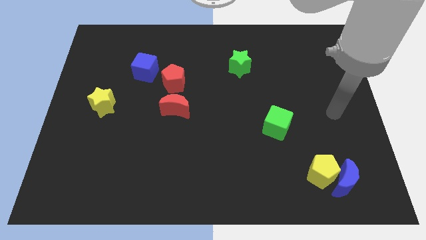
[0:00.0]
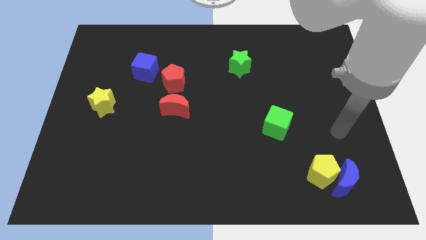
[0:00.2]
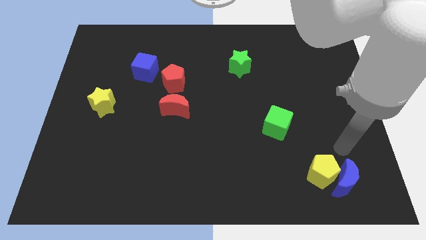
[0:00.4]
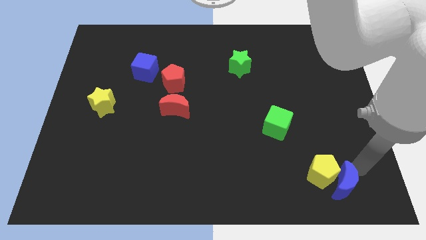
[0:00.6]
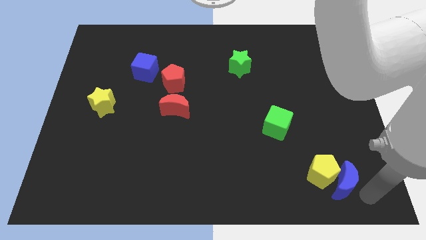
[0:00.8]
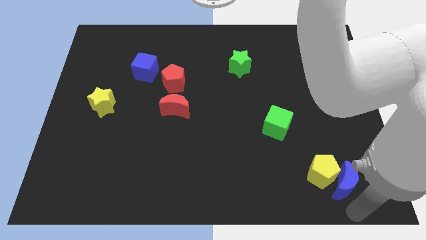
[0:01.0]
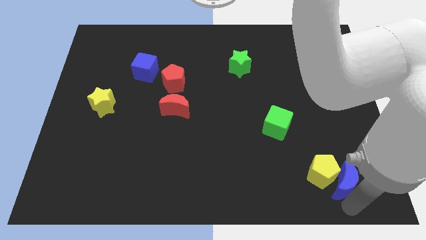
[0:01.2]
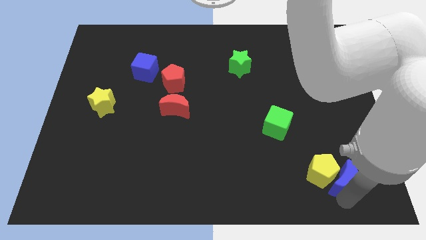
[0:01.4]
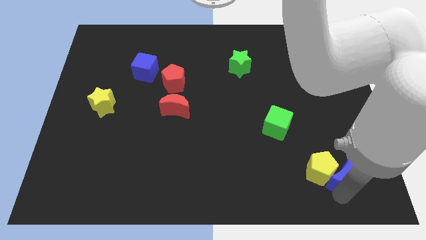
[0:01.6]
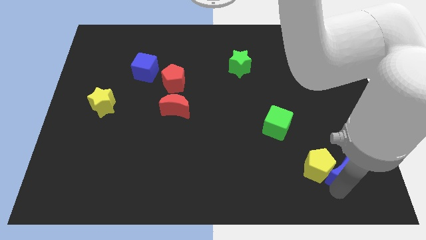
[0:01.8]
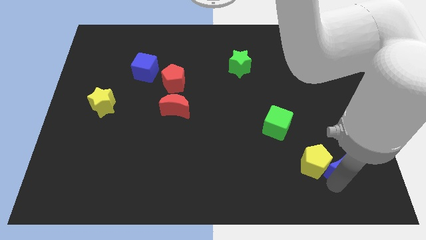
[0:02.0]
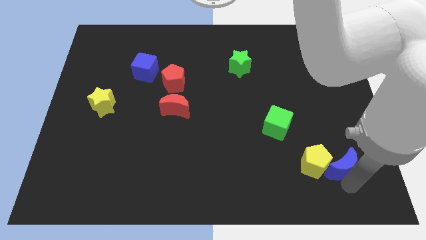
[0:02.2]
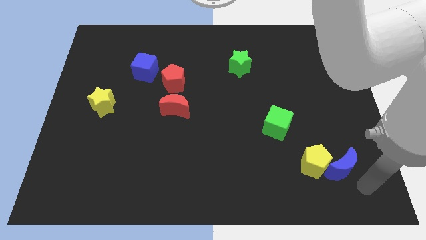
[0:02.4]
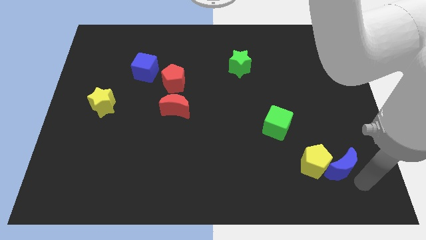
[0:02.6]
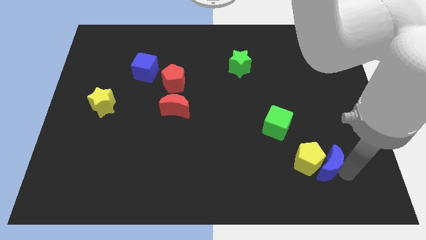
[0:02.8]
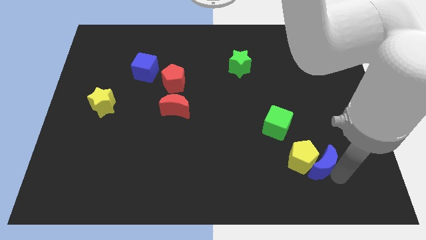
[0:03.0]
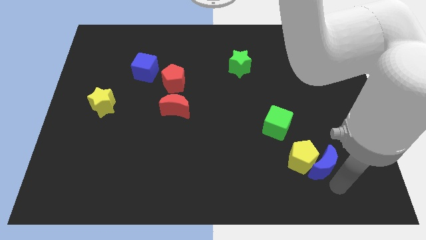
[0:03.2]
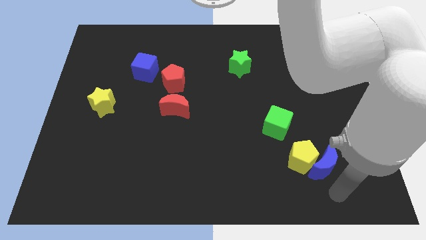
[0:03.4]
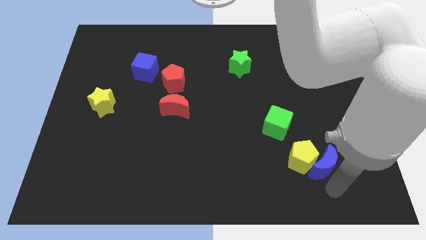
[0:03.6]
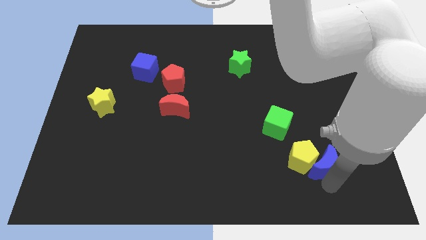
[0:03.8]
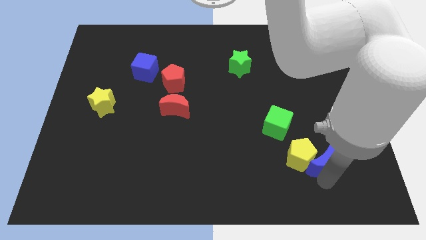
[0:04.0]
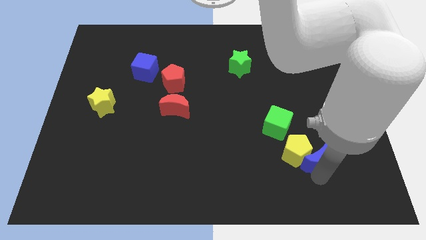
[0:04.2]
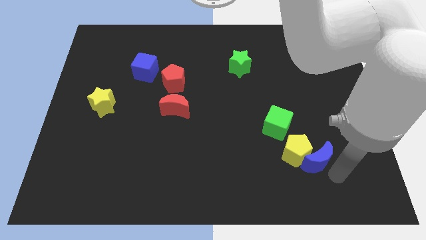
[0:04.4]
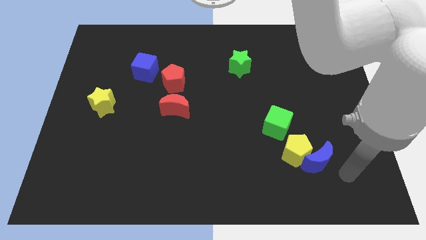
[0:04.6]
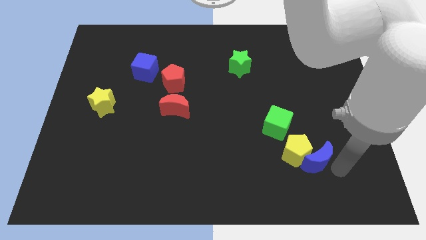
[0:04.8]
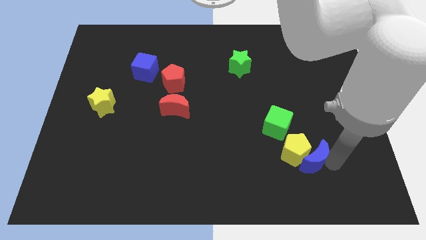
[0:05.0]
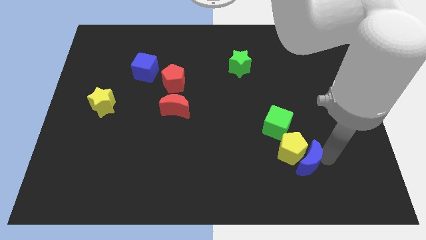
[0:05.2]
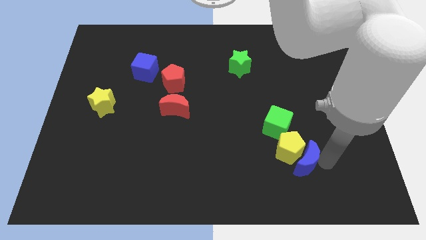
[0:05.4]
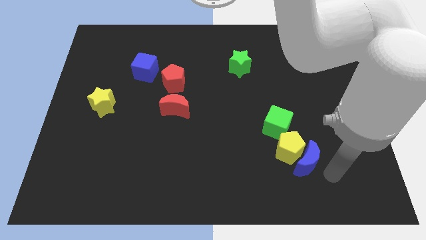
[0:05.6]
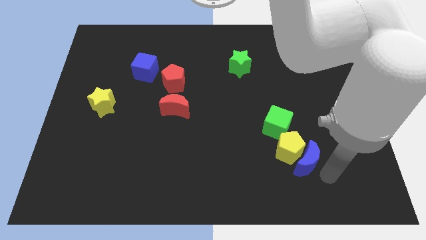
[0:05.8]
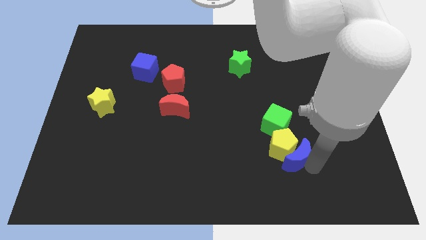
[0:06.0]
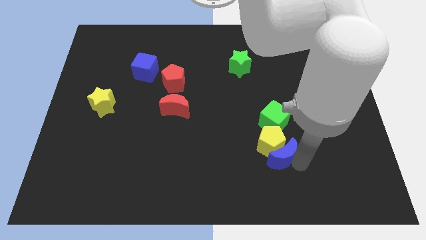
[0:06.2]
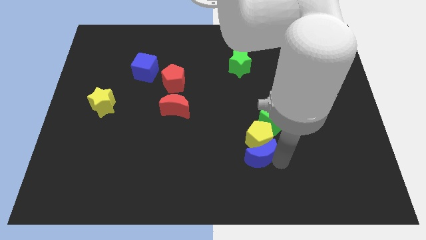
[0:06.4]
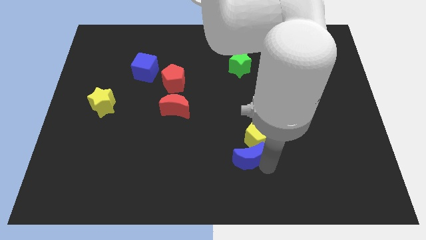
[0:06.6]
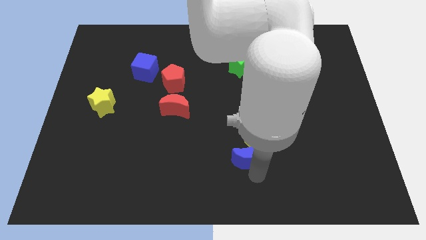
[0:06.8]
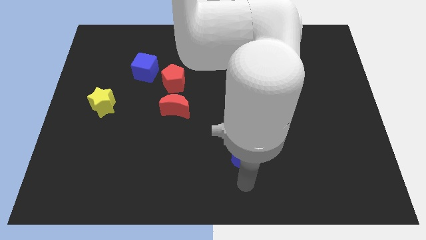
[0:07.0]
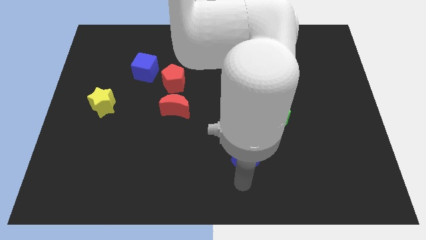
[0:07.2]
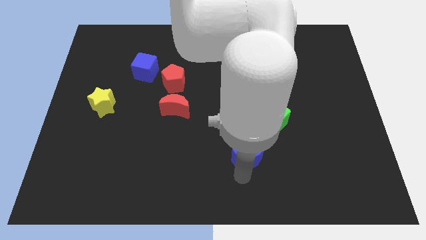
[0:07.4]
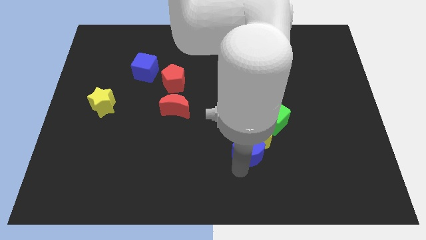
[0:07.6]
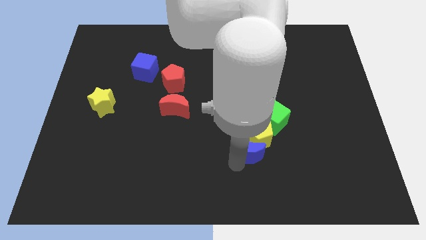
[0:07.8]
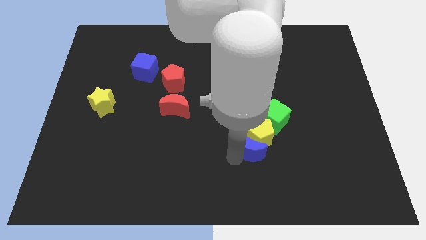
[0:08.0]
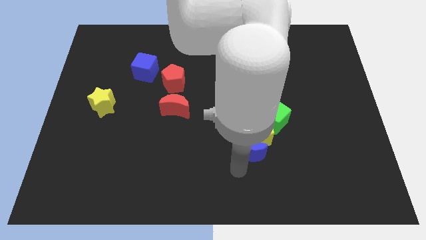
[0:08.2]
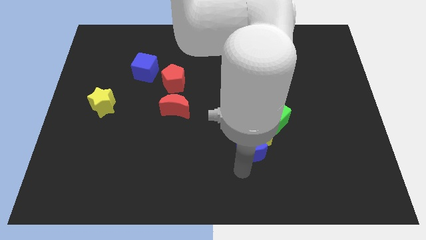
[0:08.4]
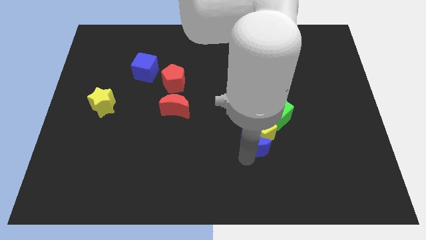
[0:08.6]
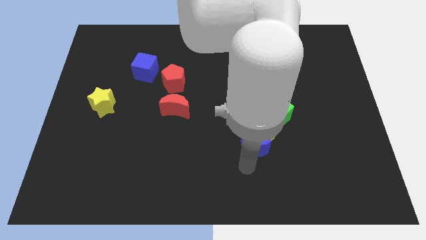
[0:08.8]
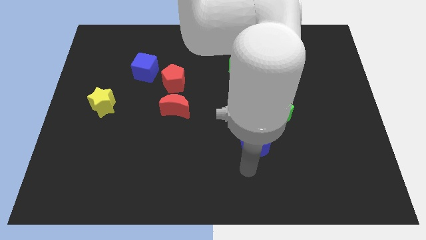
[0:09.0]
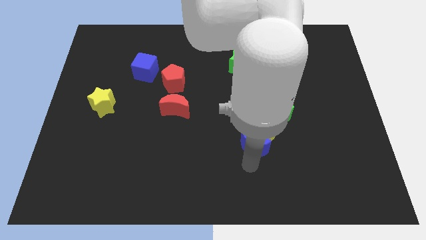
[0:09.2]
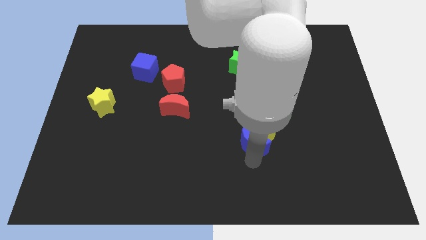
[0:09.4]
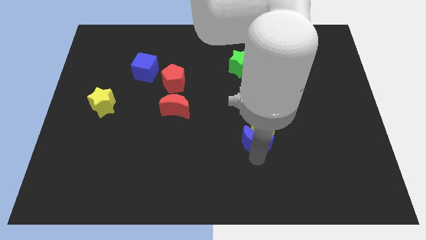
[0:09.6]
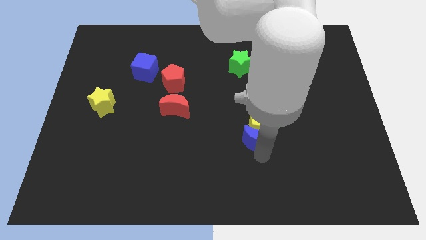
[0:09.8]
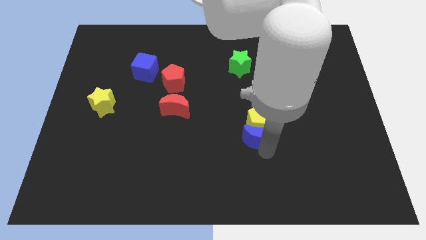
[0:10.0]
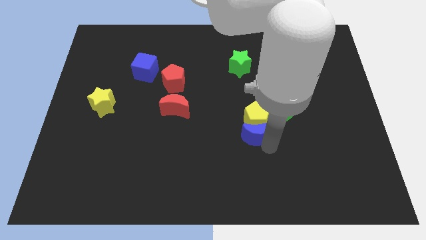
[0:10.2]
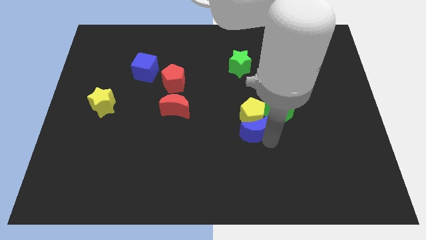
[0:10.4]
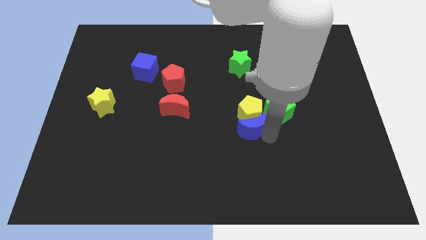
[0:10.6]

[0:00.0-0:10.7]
push the blue moon to the center

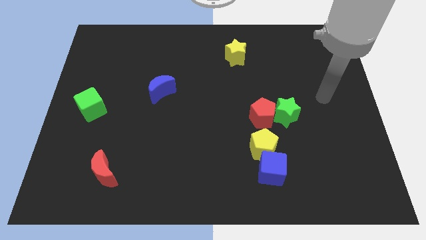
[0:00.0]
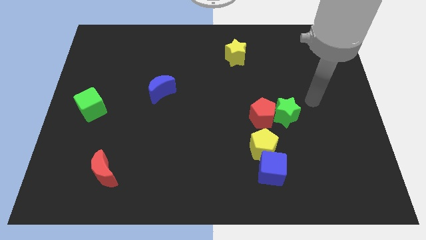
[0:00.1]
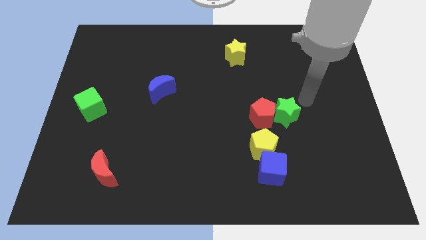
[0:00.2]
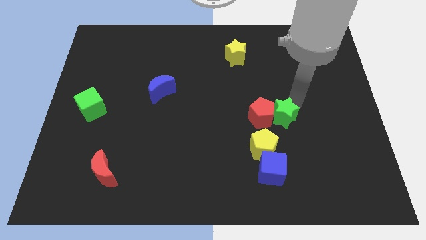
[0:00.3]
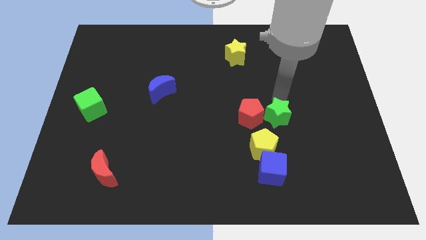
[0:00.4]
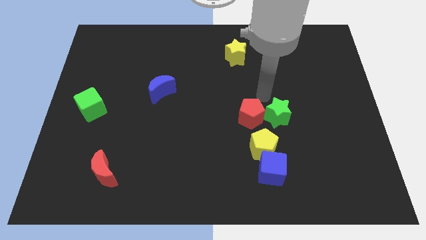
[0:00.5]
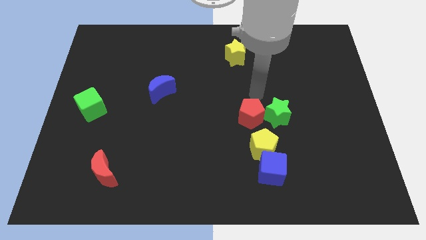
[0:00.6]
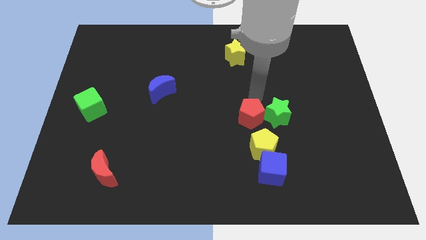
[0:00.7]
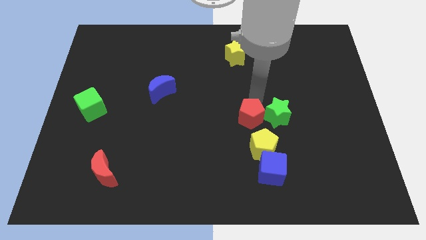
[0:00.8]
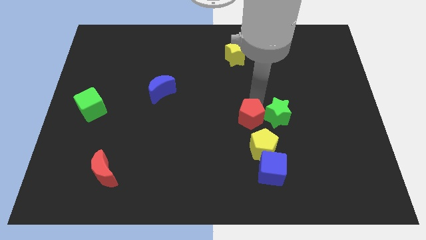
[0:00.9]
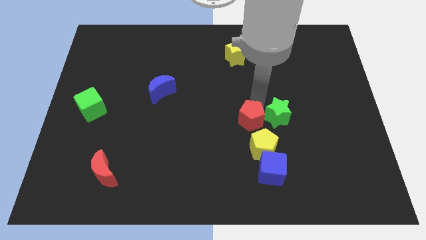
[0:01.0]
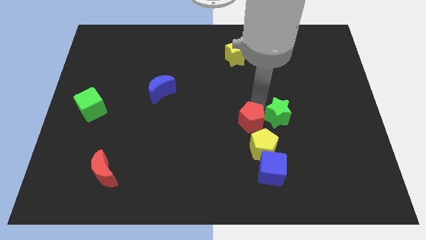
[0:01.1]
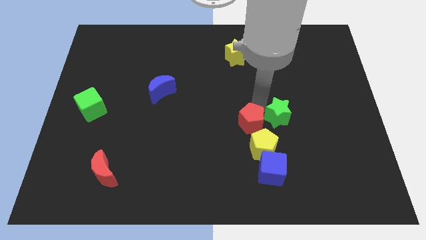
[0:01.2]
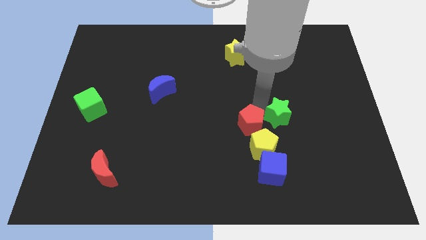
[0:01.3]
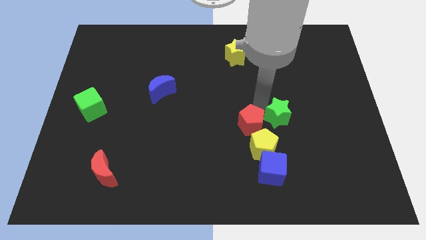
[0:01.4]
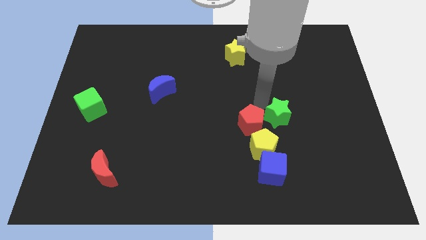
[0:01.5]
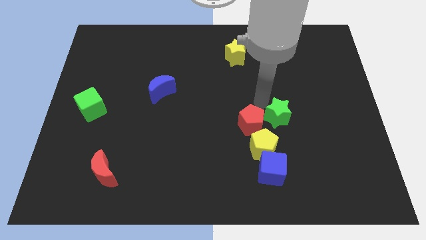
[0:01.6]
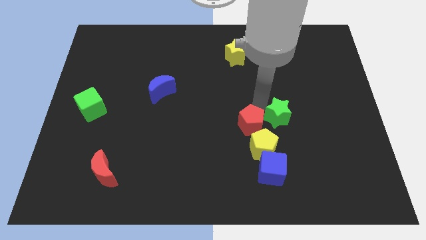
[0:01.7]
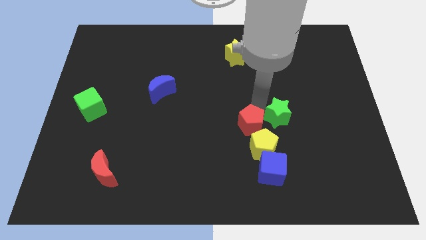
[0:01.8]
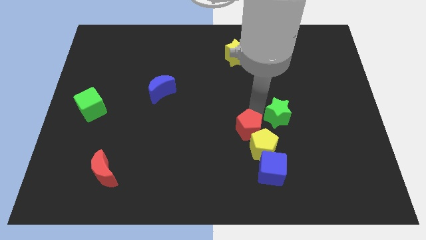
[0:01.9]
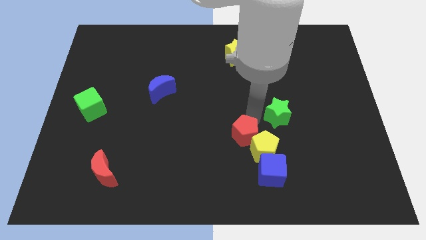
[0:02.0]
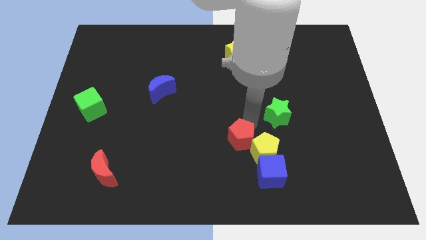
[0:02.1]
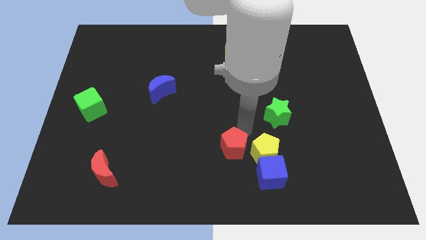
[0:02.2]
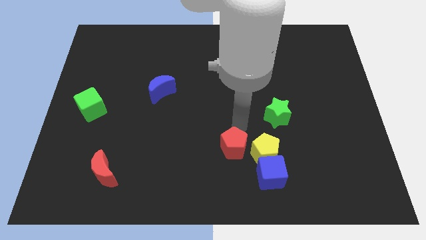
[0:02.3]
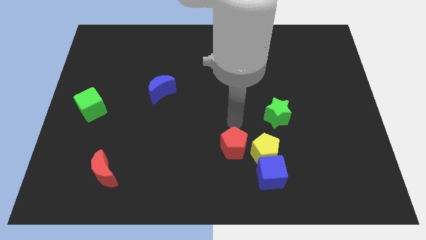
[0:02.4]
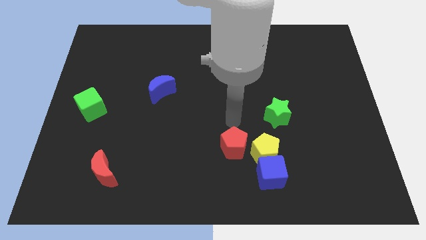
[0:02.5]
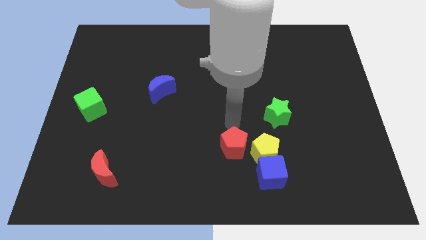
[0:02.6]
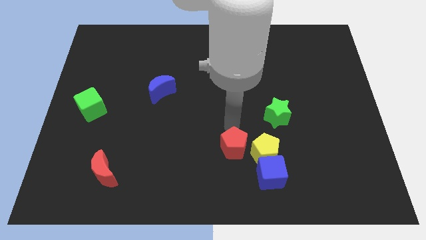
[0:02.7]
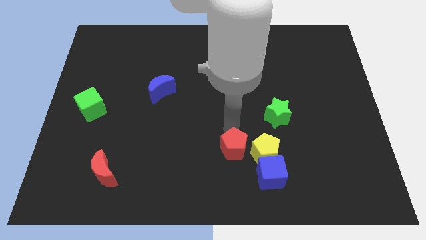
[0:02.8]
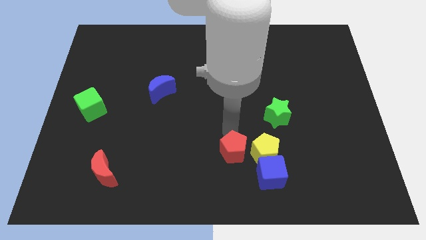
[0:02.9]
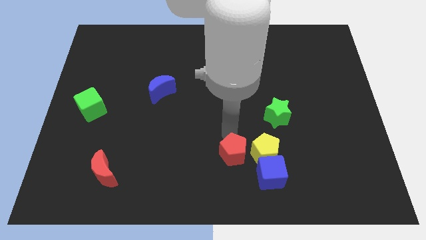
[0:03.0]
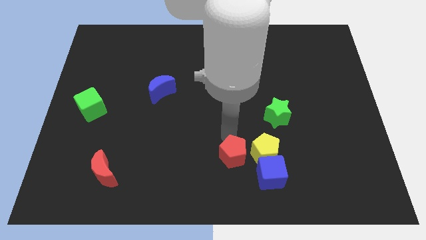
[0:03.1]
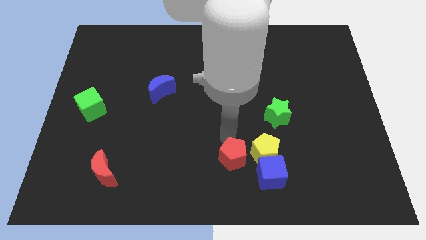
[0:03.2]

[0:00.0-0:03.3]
slide the red pentagon to the bottom
